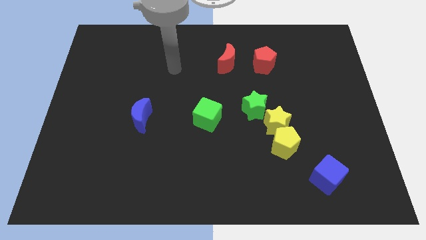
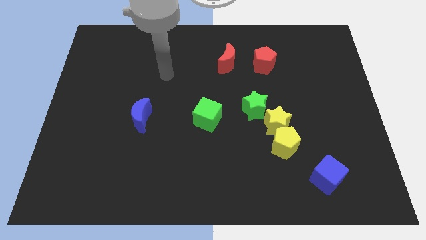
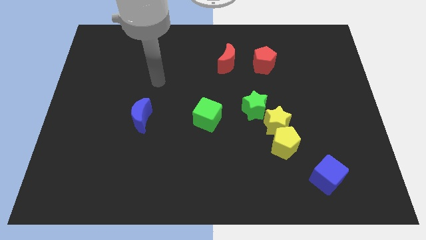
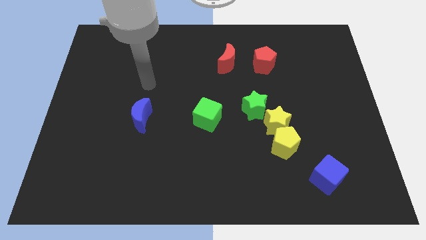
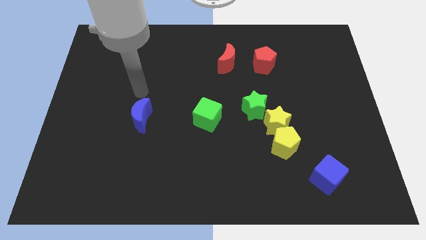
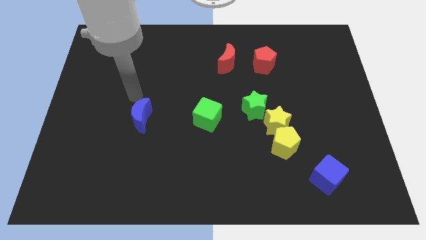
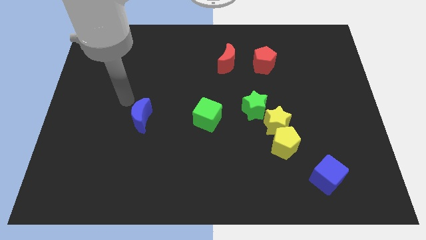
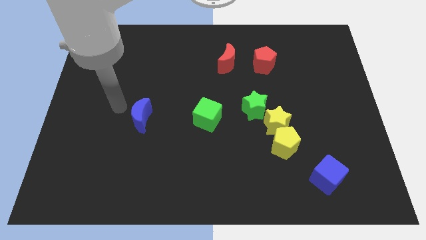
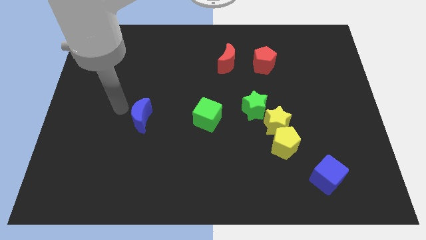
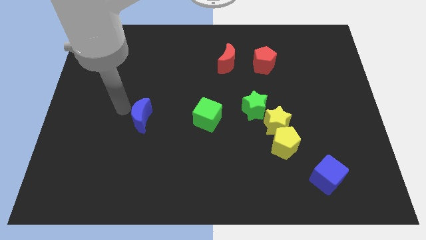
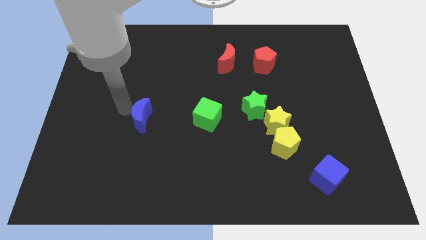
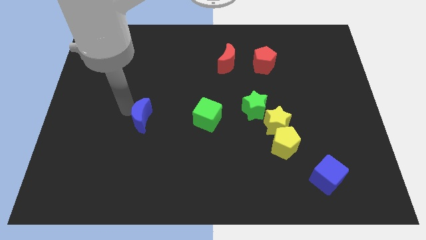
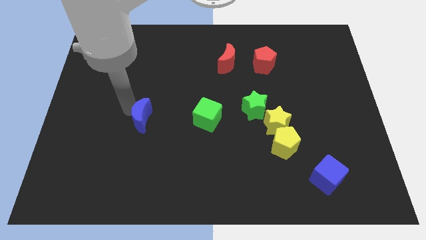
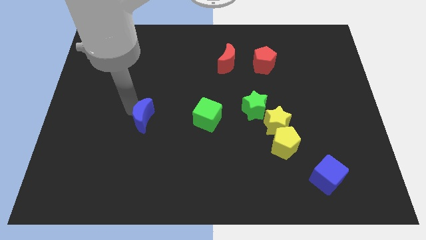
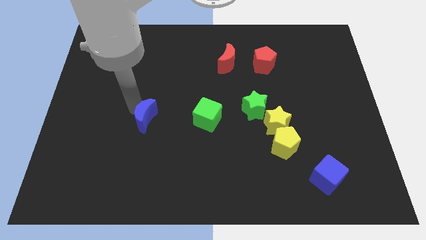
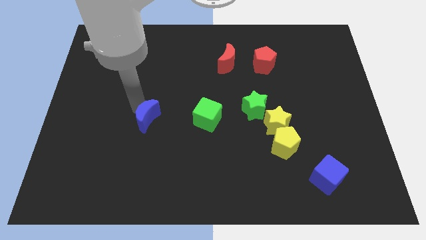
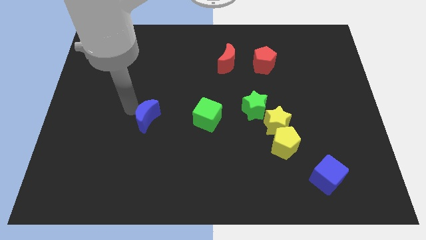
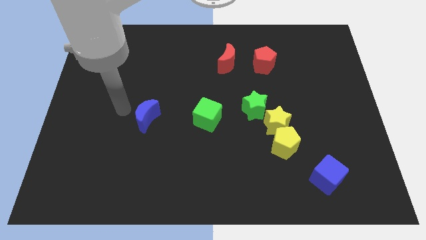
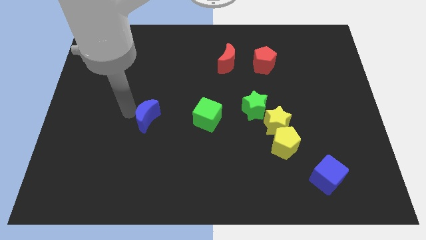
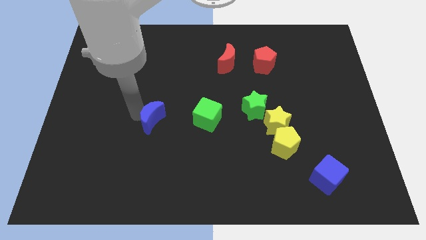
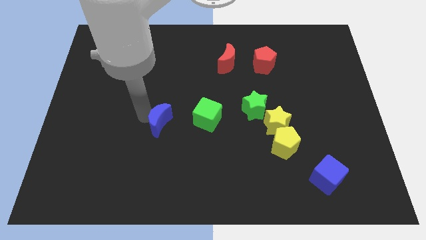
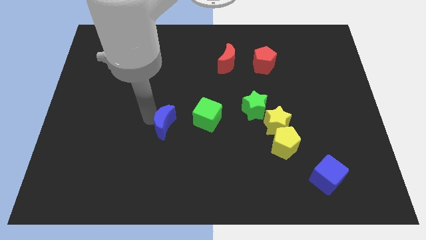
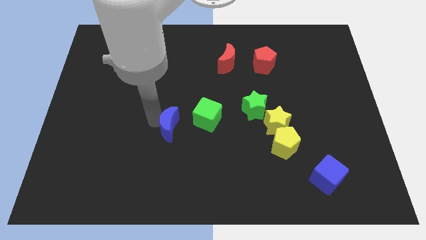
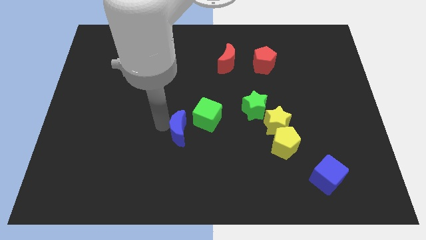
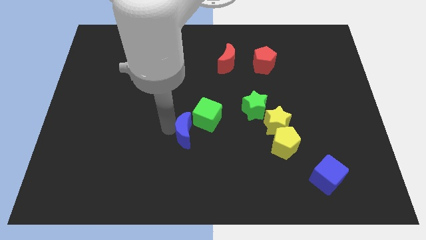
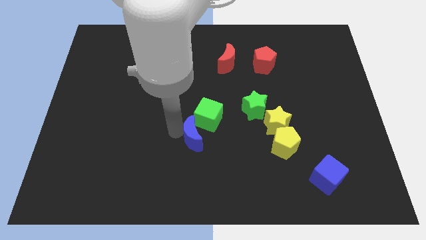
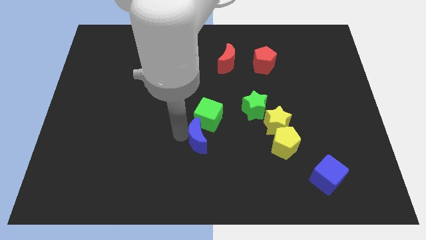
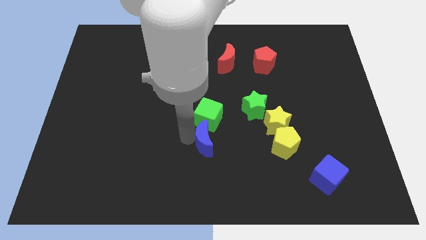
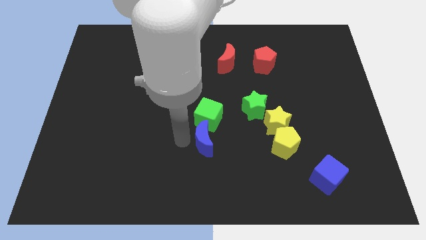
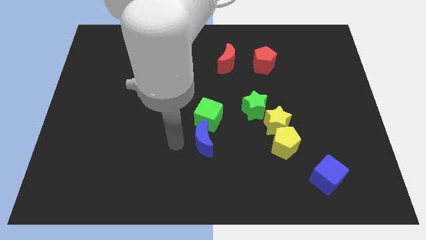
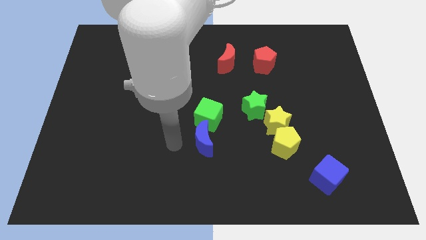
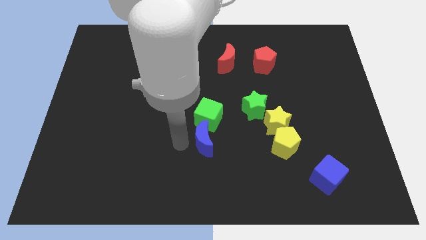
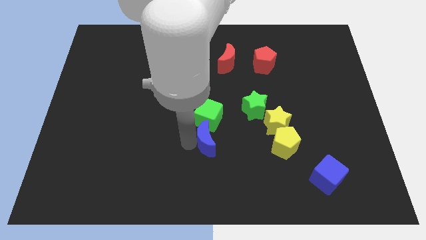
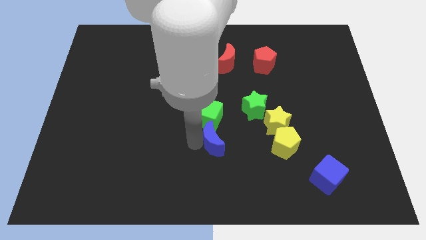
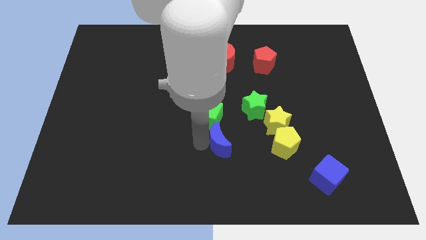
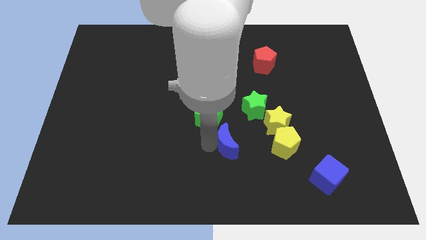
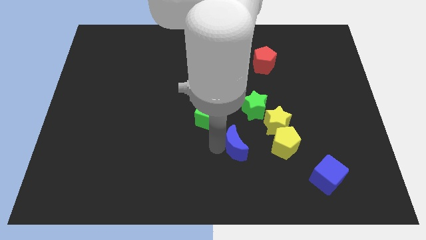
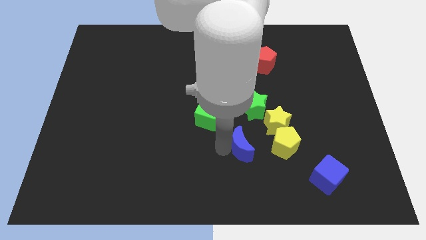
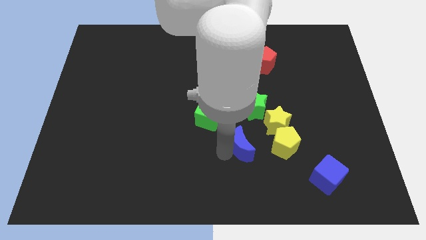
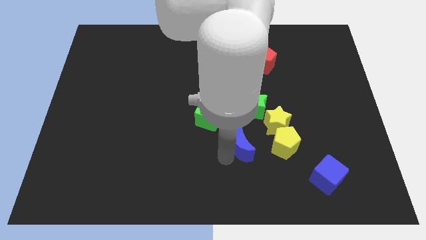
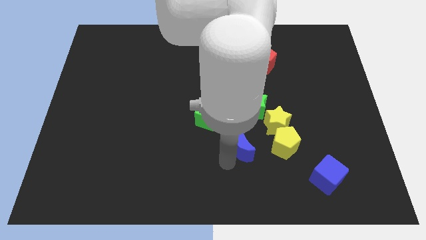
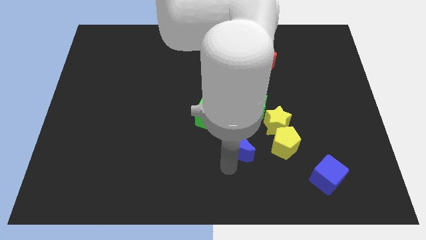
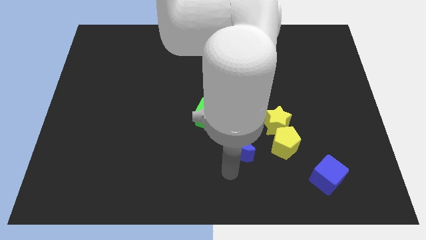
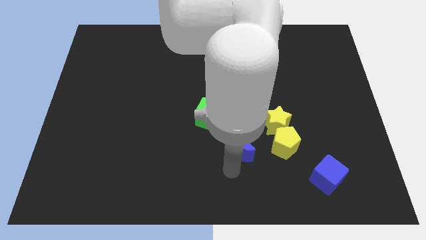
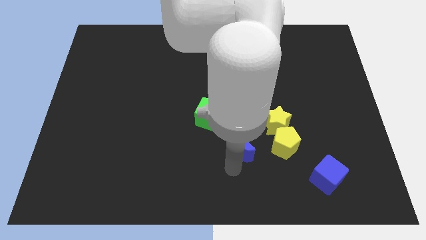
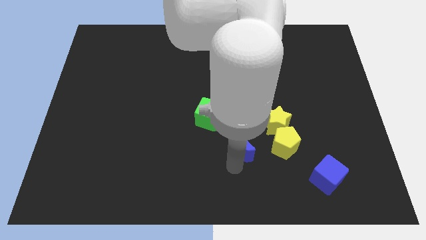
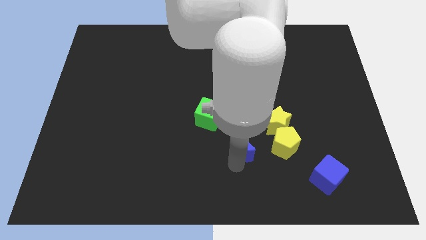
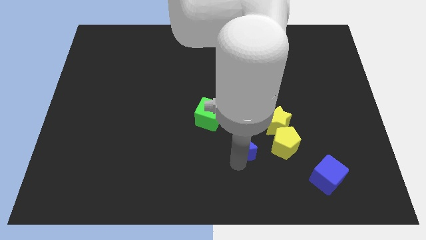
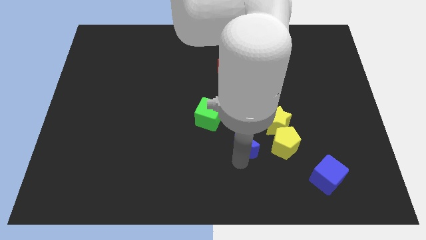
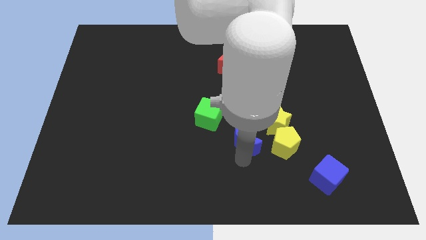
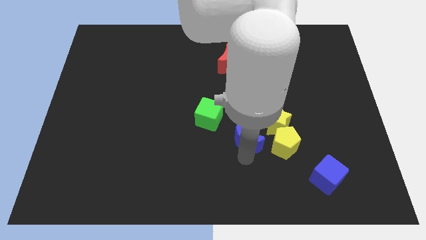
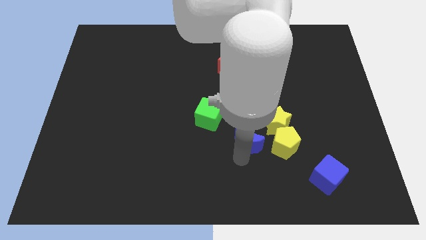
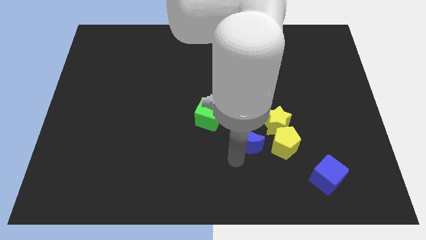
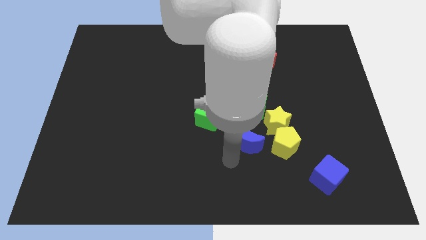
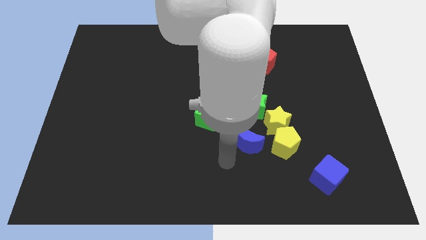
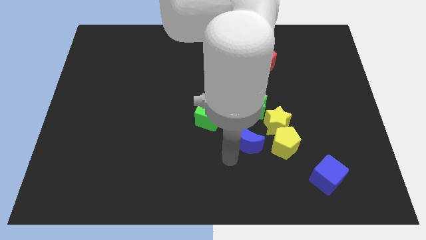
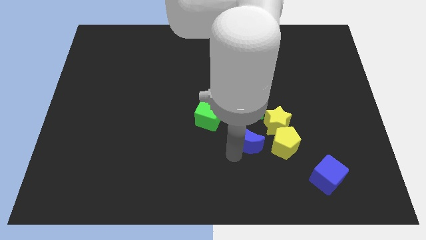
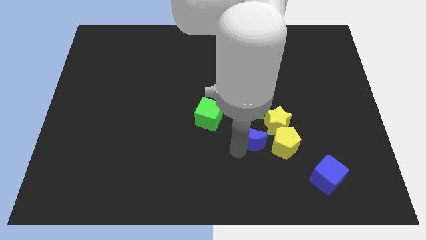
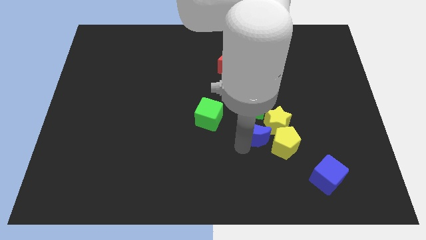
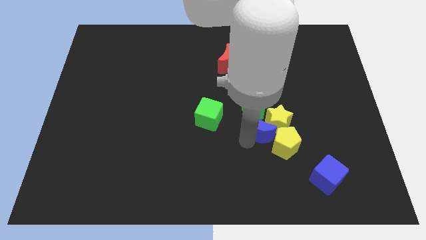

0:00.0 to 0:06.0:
push the blue moon to the yellow star
